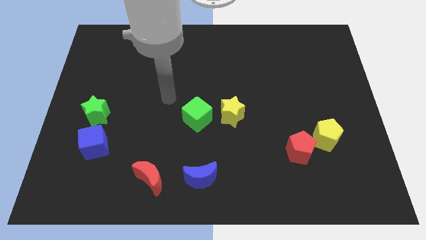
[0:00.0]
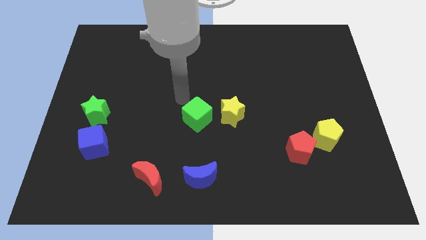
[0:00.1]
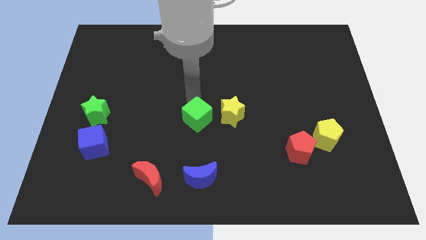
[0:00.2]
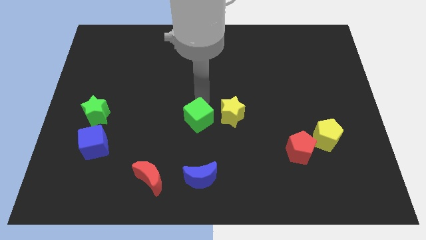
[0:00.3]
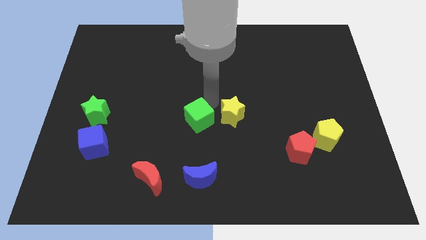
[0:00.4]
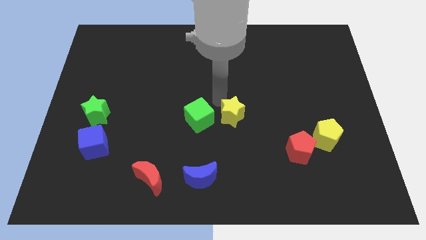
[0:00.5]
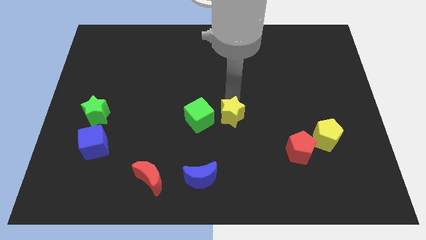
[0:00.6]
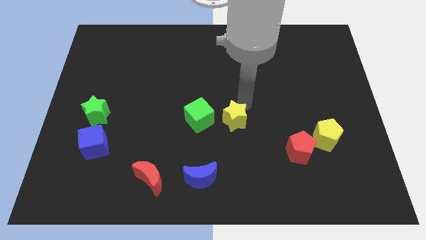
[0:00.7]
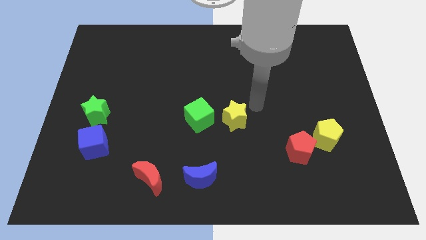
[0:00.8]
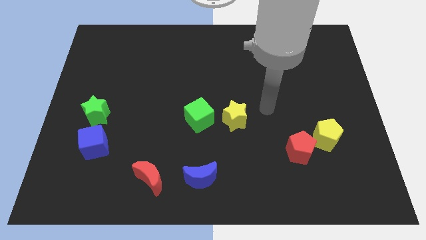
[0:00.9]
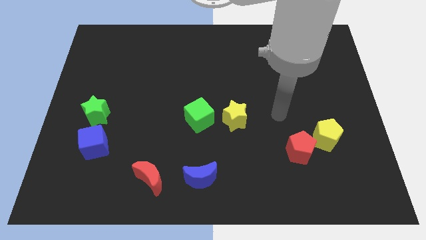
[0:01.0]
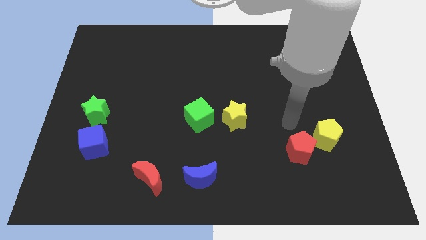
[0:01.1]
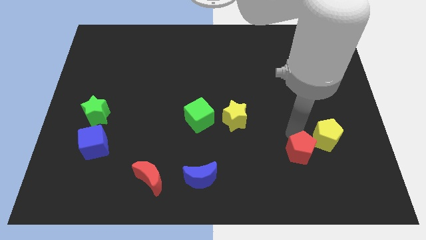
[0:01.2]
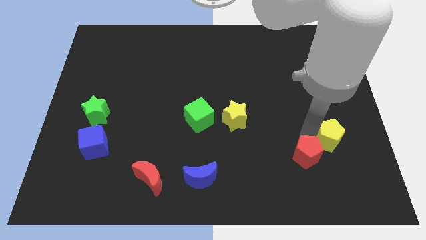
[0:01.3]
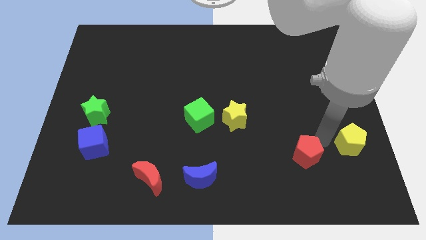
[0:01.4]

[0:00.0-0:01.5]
pull the red pentagon apart from the yellow pentagon

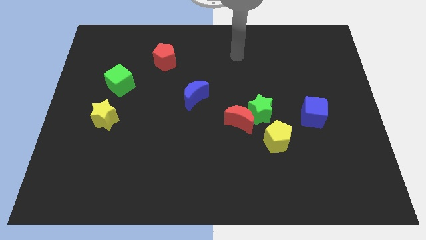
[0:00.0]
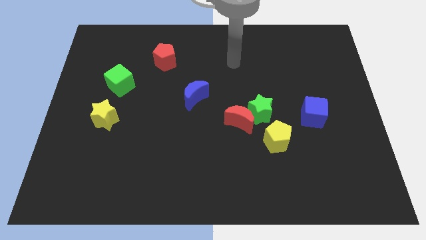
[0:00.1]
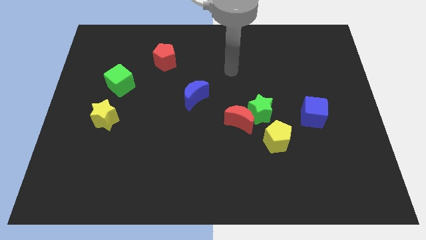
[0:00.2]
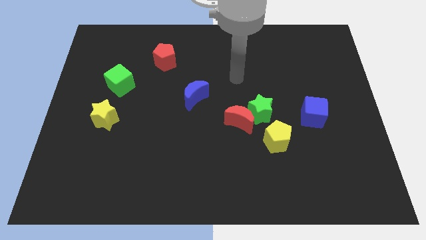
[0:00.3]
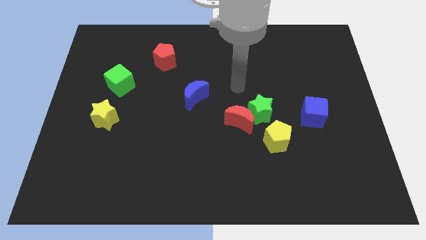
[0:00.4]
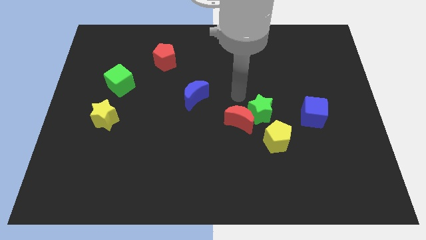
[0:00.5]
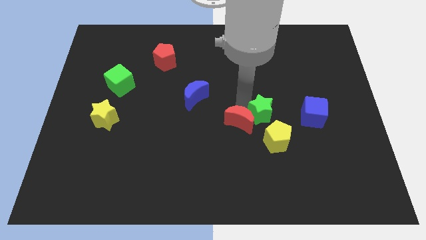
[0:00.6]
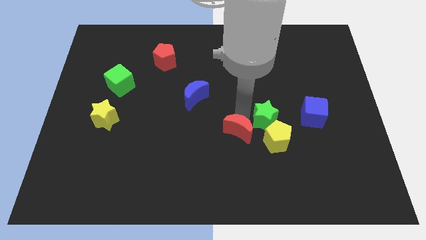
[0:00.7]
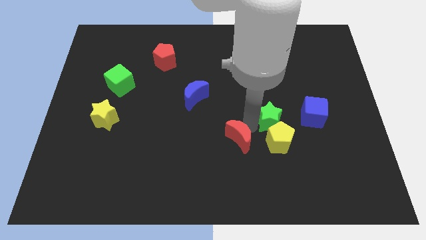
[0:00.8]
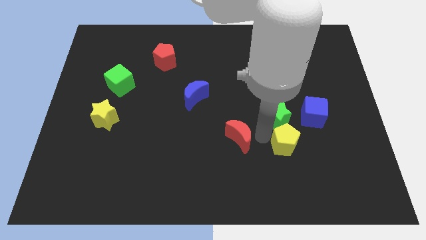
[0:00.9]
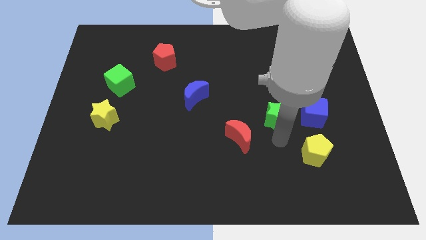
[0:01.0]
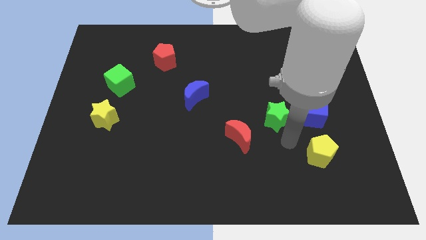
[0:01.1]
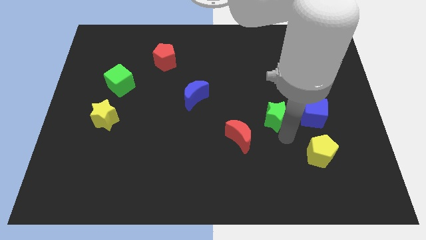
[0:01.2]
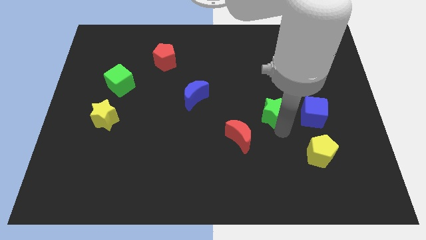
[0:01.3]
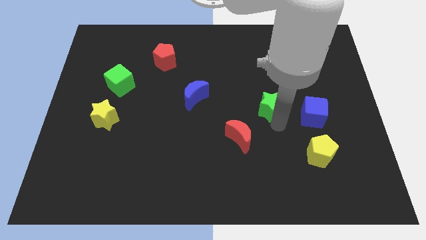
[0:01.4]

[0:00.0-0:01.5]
separate the green star from the red moon and yellow pentagon

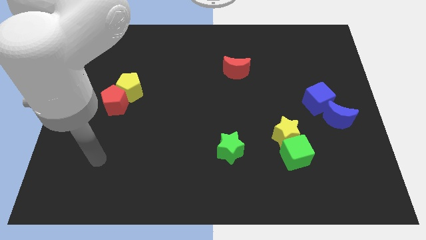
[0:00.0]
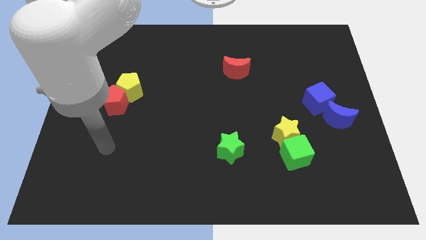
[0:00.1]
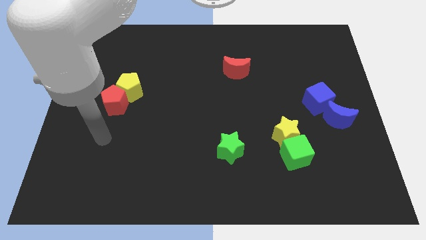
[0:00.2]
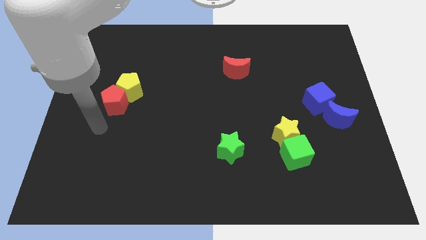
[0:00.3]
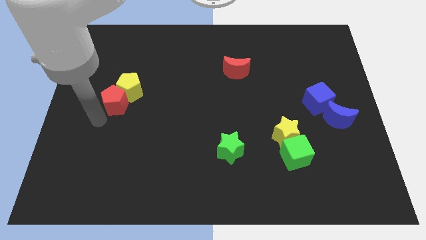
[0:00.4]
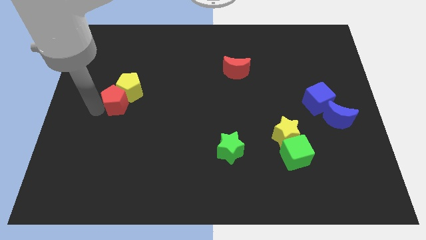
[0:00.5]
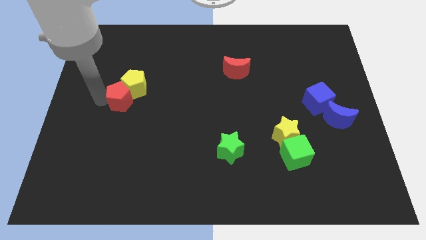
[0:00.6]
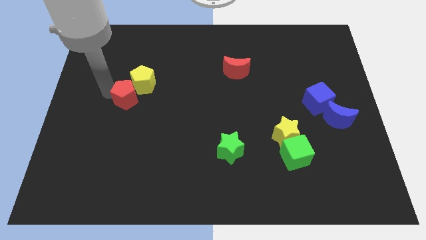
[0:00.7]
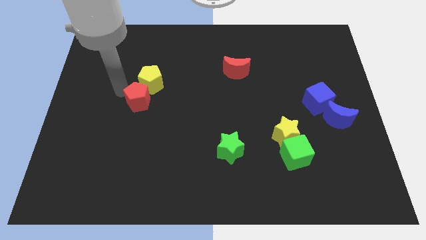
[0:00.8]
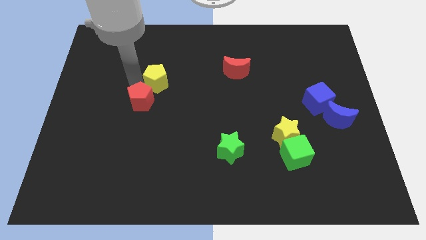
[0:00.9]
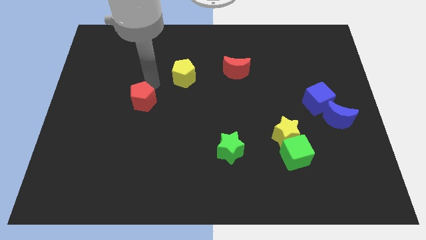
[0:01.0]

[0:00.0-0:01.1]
move the red pentagon away from the yellow pentagon

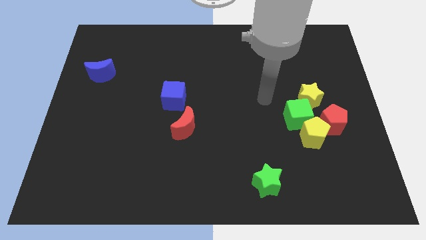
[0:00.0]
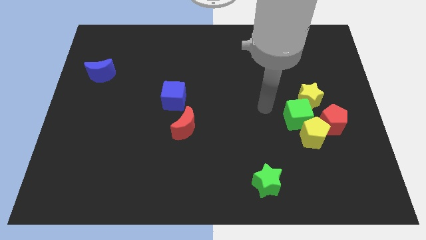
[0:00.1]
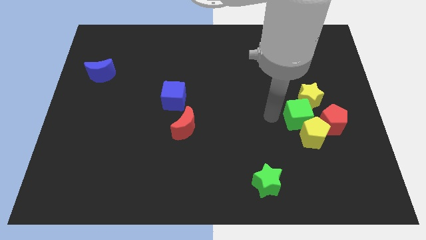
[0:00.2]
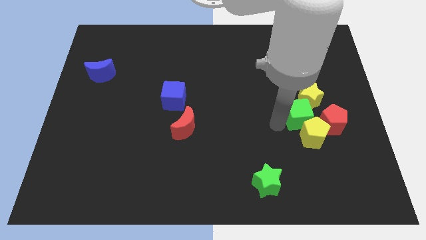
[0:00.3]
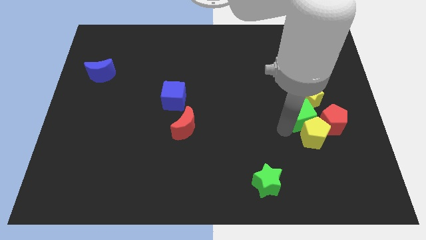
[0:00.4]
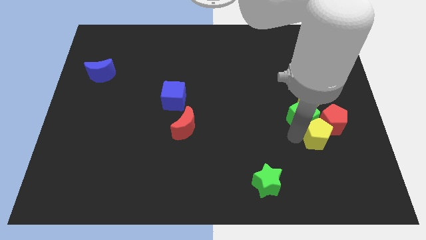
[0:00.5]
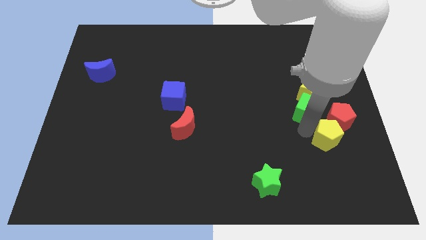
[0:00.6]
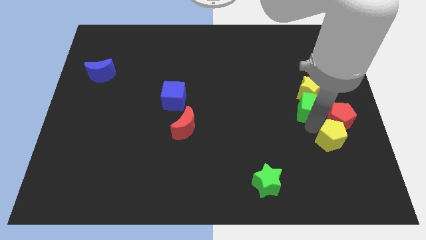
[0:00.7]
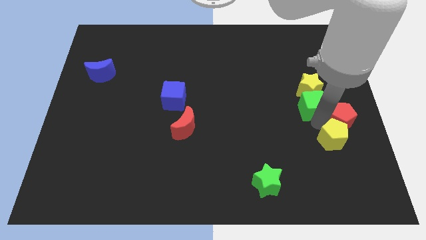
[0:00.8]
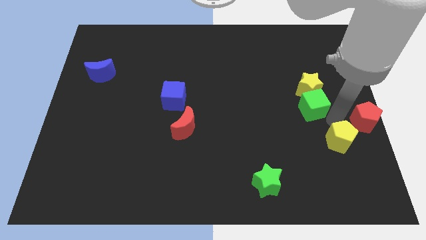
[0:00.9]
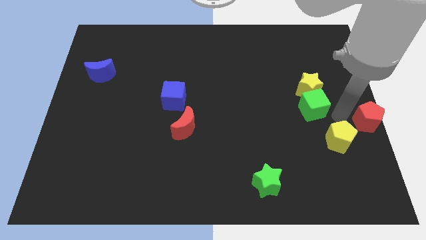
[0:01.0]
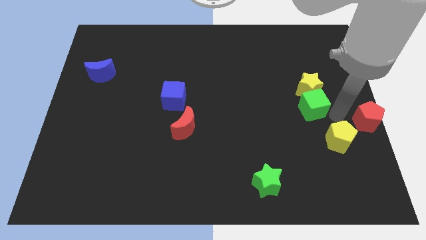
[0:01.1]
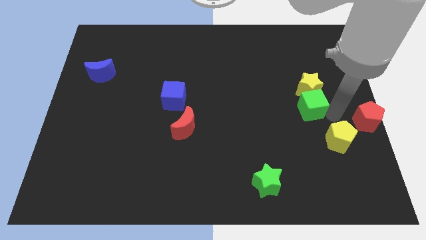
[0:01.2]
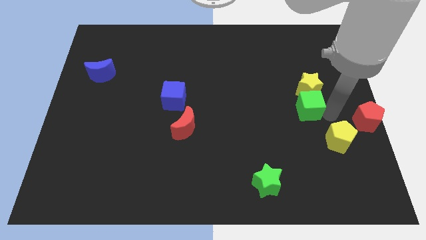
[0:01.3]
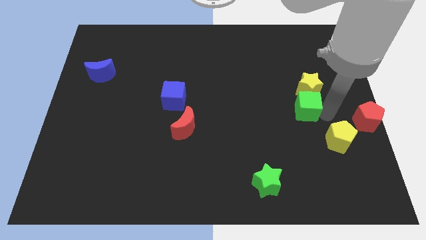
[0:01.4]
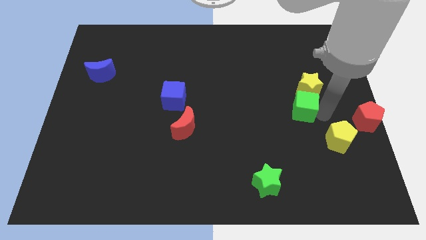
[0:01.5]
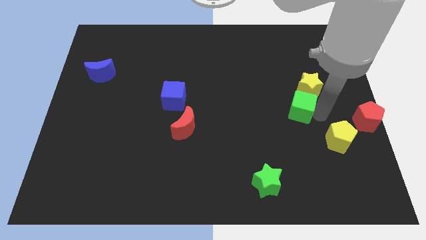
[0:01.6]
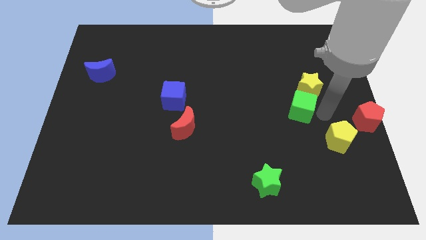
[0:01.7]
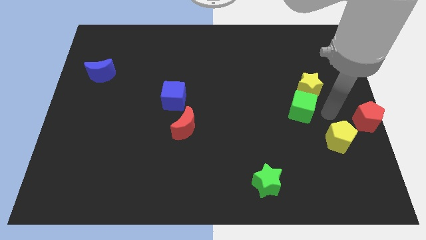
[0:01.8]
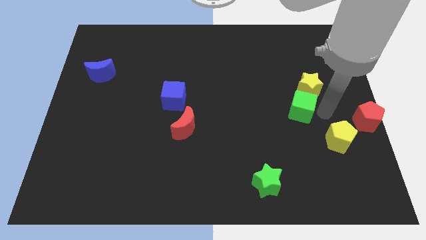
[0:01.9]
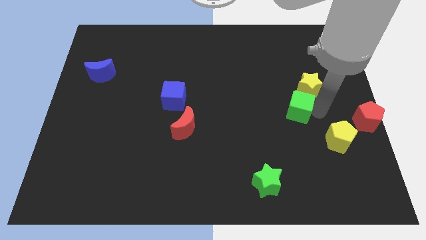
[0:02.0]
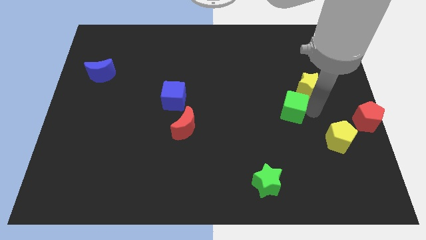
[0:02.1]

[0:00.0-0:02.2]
separate the green cube from the yellow pentagon, yellow star, and red pentagon

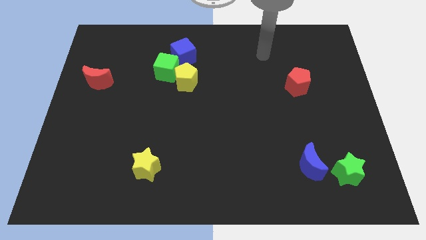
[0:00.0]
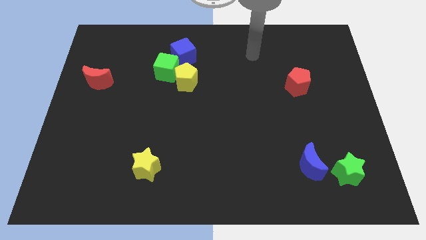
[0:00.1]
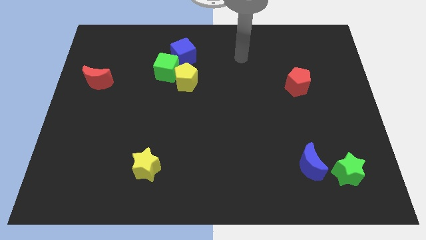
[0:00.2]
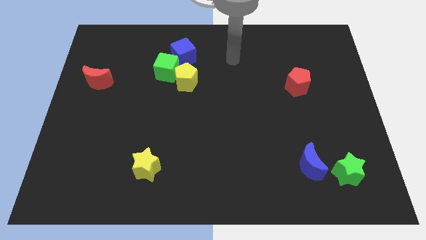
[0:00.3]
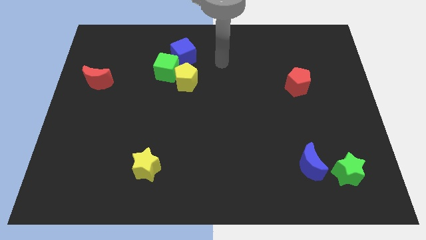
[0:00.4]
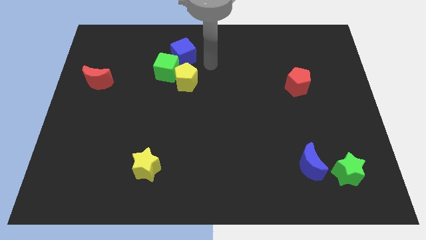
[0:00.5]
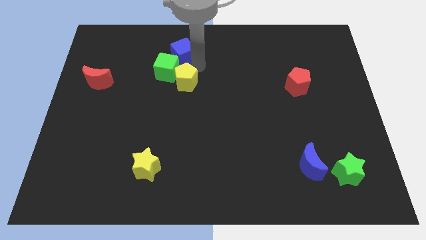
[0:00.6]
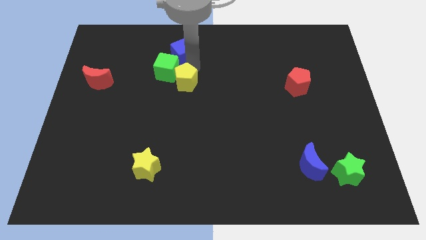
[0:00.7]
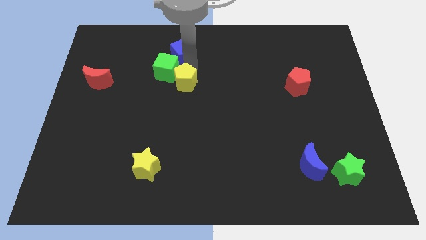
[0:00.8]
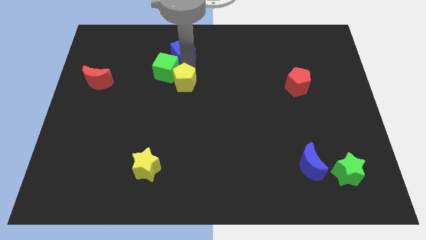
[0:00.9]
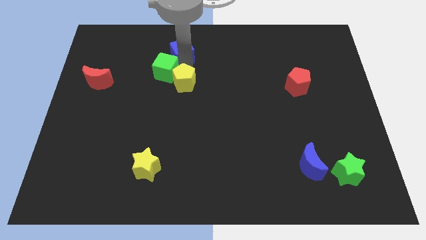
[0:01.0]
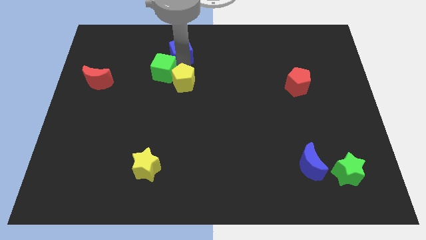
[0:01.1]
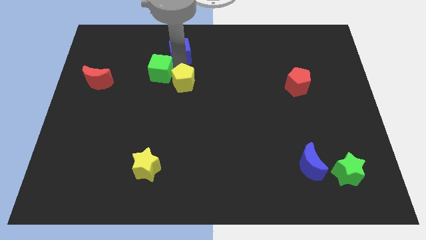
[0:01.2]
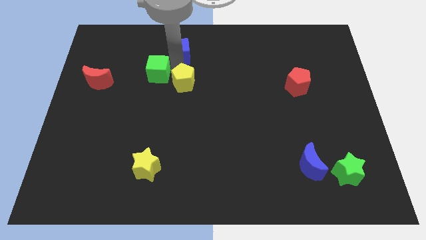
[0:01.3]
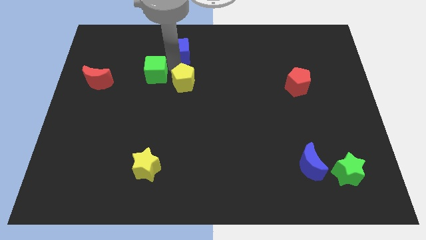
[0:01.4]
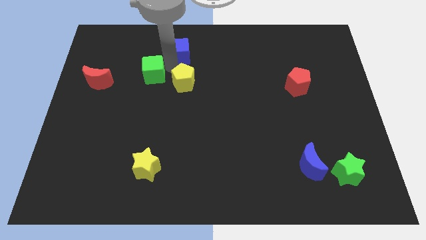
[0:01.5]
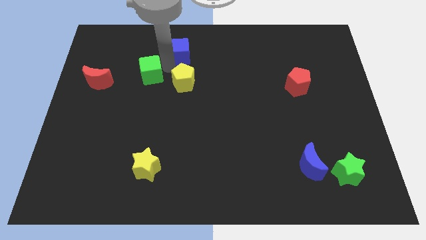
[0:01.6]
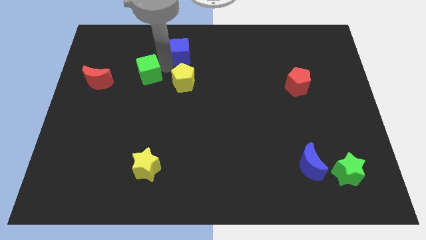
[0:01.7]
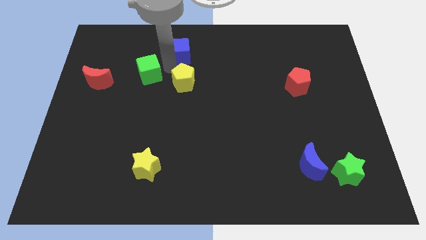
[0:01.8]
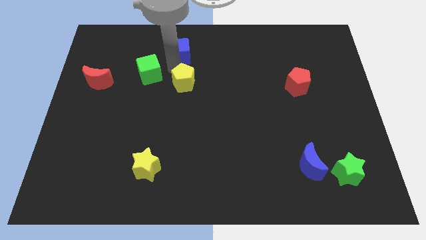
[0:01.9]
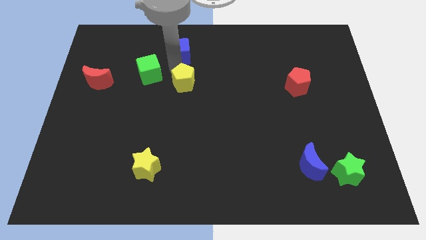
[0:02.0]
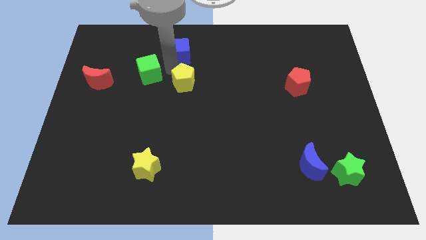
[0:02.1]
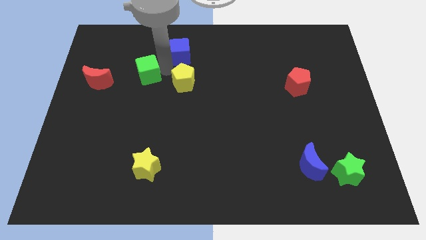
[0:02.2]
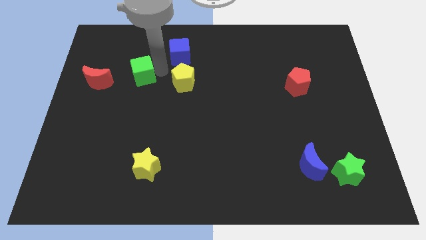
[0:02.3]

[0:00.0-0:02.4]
pull the green cube apart from the yellow pentagon and blue cube

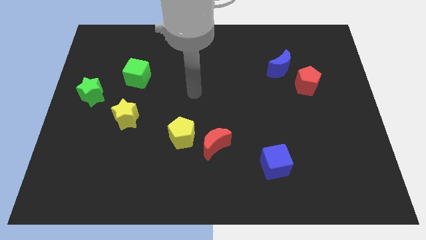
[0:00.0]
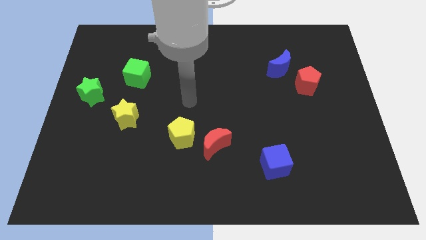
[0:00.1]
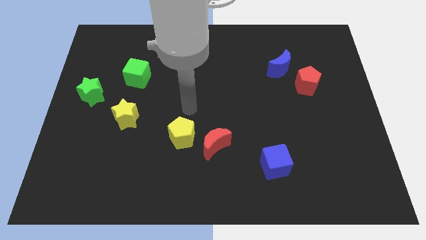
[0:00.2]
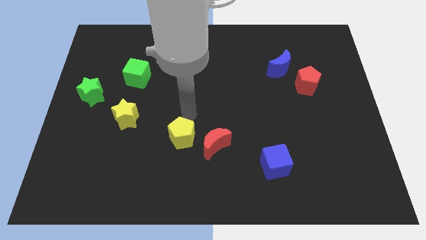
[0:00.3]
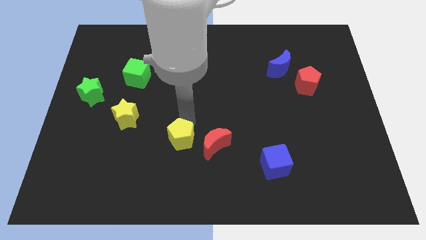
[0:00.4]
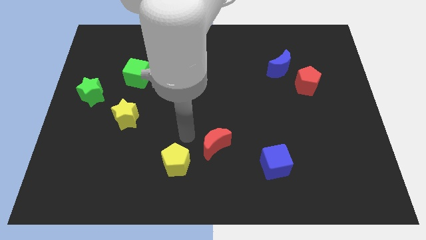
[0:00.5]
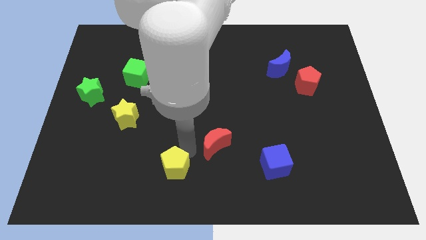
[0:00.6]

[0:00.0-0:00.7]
move the red moon away from the yellow pentagon
